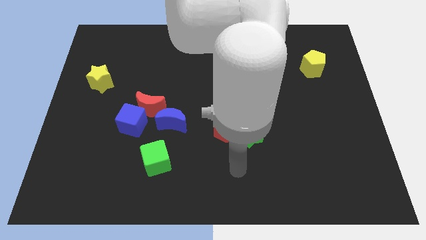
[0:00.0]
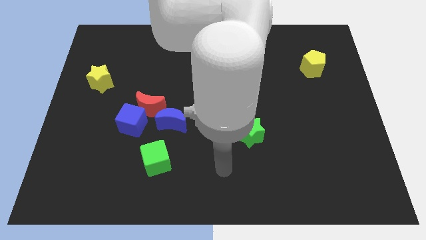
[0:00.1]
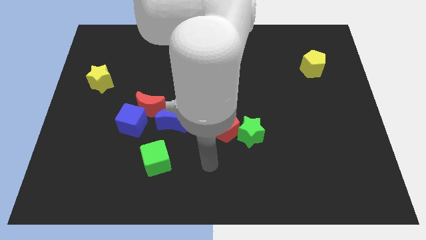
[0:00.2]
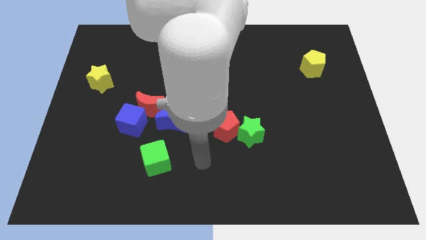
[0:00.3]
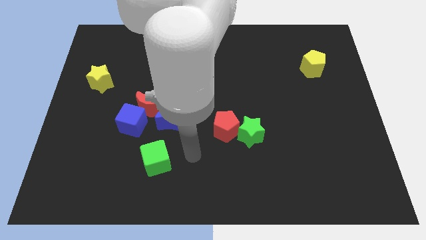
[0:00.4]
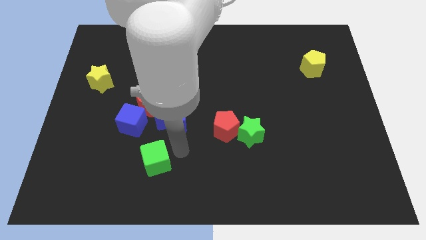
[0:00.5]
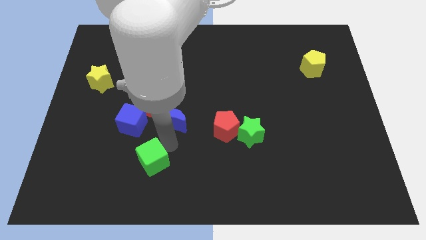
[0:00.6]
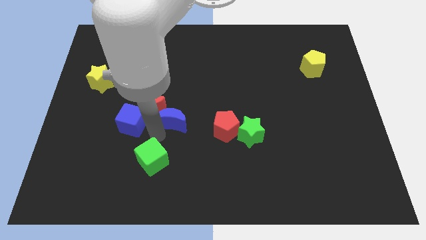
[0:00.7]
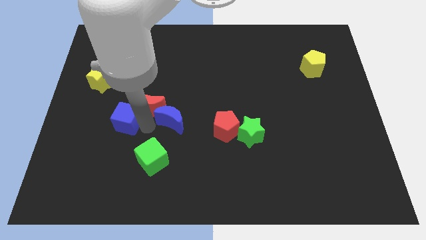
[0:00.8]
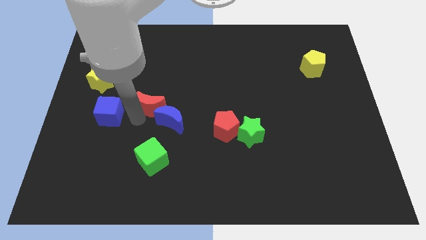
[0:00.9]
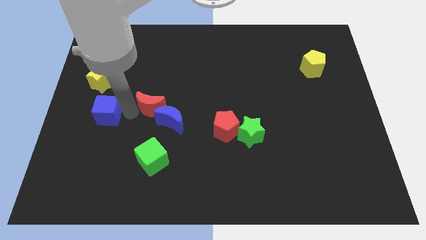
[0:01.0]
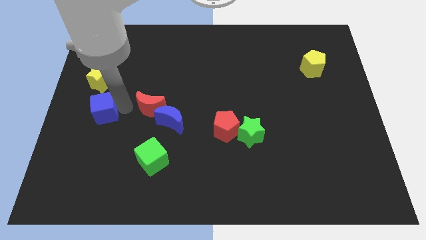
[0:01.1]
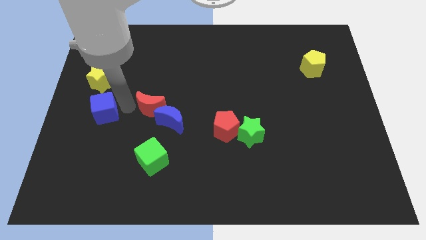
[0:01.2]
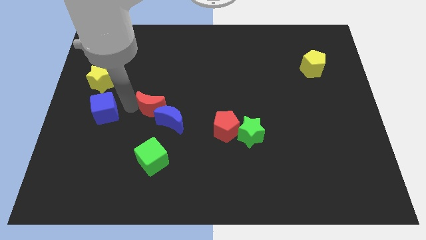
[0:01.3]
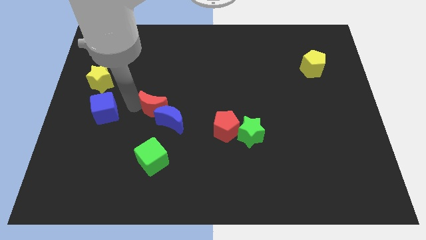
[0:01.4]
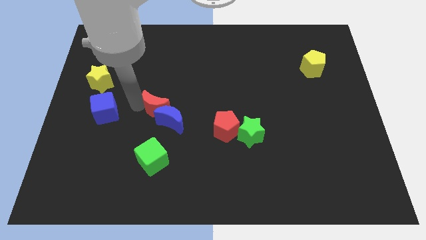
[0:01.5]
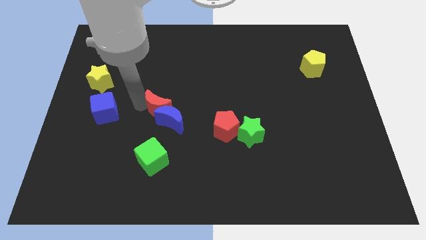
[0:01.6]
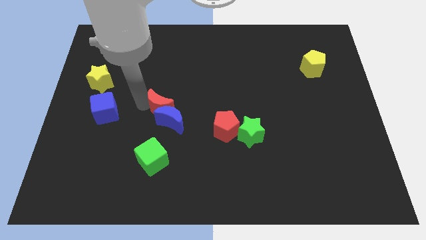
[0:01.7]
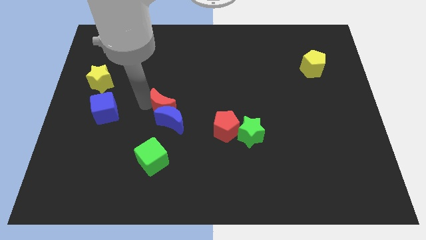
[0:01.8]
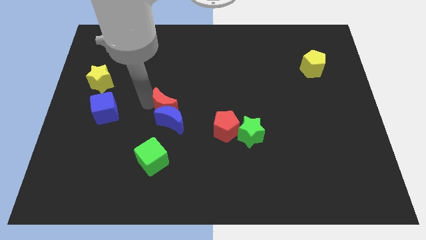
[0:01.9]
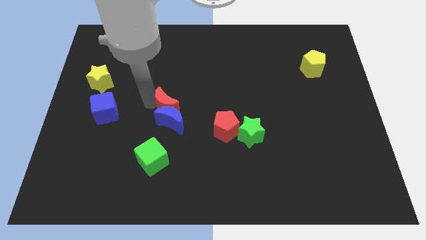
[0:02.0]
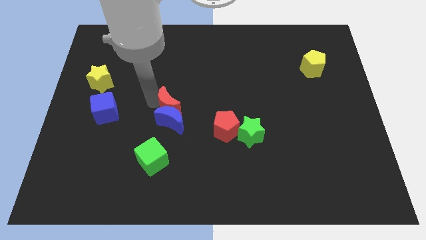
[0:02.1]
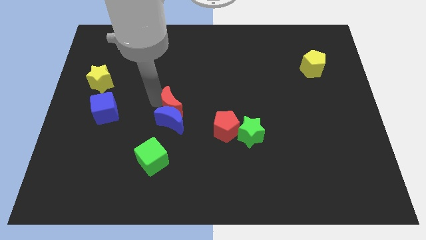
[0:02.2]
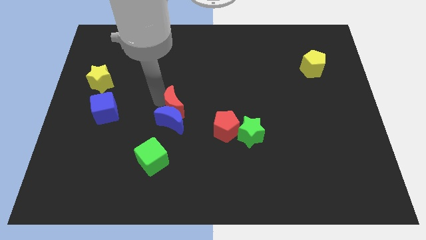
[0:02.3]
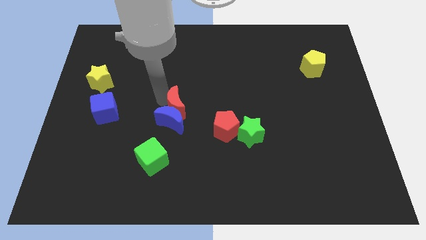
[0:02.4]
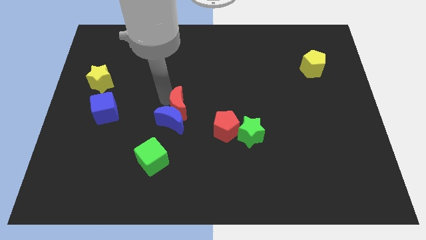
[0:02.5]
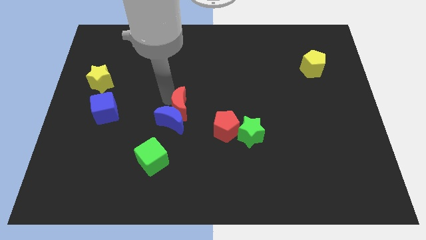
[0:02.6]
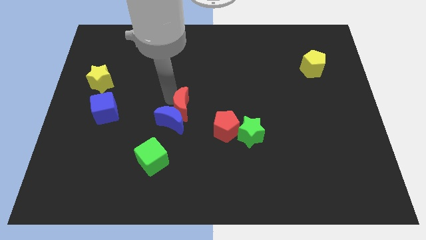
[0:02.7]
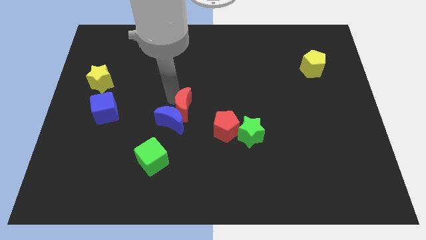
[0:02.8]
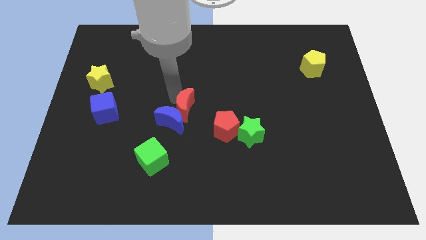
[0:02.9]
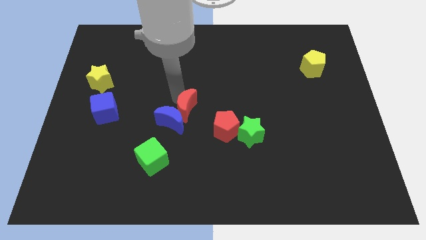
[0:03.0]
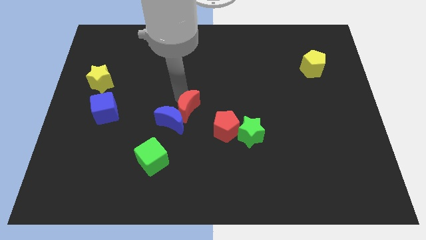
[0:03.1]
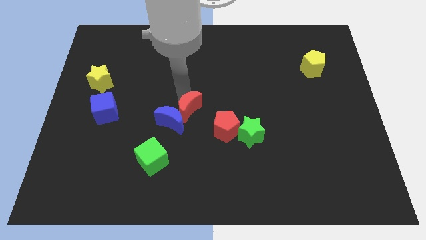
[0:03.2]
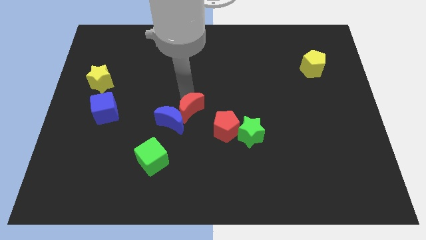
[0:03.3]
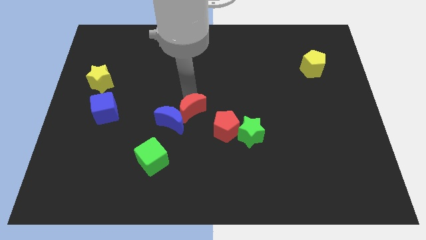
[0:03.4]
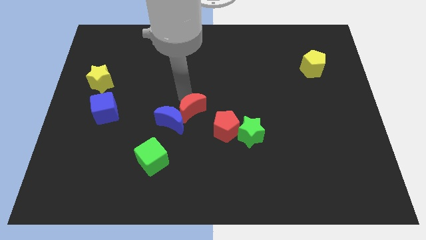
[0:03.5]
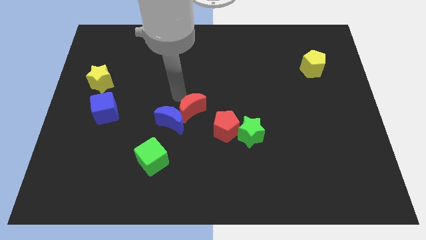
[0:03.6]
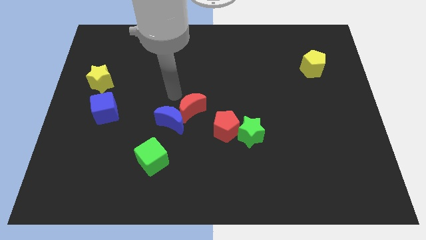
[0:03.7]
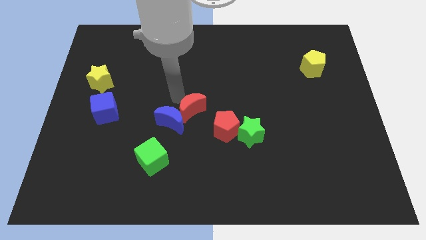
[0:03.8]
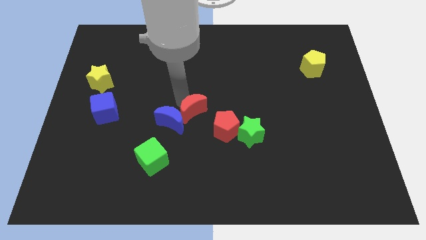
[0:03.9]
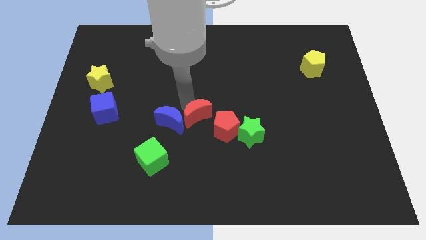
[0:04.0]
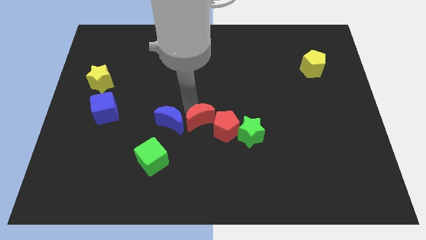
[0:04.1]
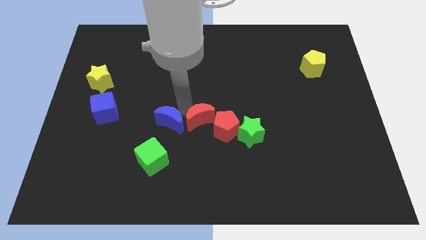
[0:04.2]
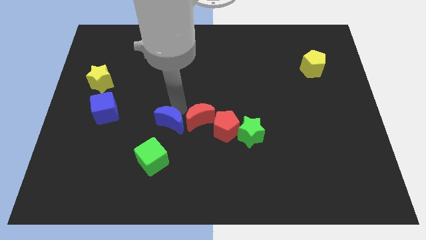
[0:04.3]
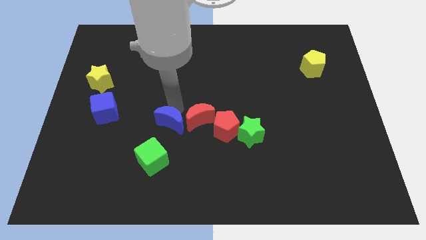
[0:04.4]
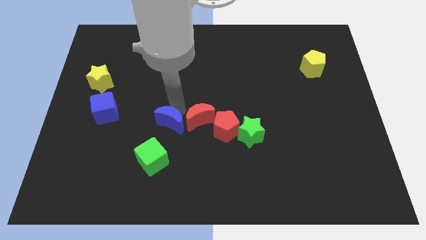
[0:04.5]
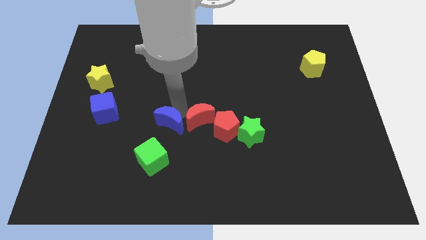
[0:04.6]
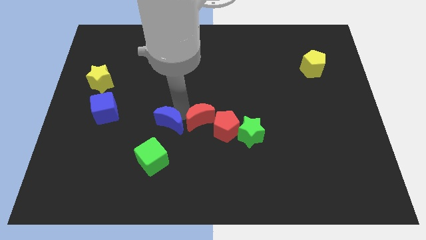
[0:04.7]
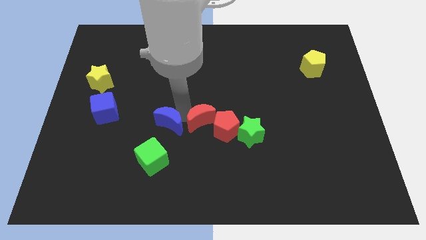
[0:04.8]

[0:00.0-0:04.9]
push the red moon next to the red pentagon

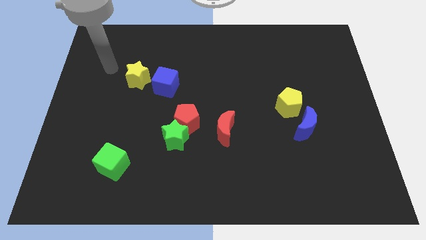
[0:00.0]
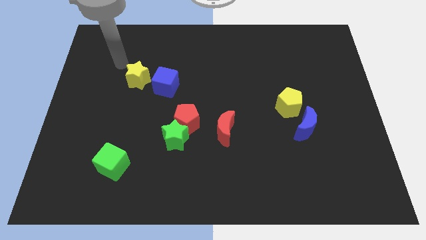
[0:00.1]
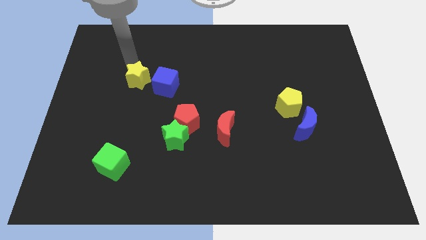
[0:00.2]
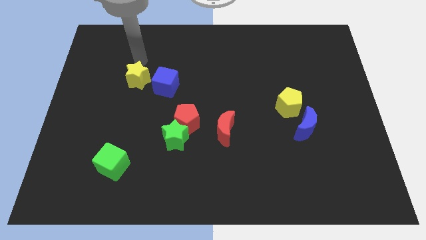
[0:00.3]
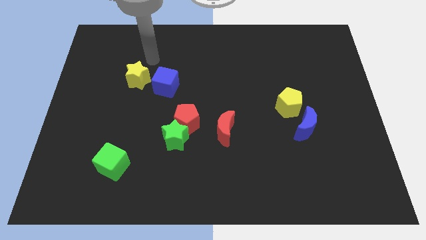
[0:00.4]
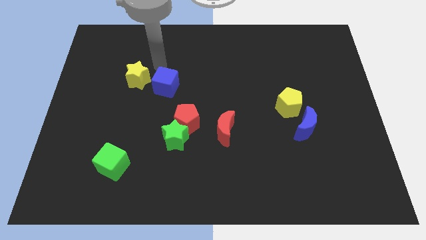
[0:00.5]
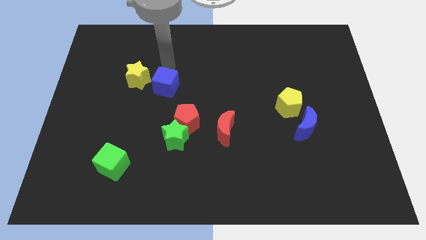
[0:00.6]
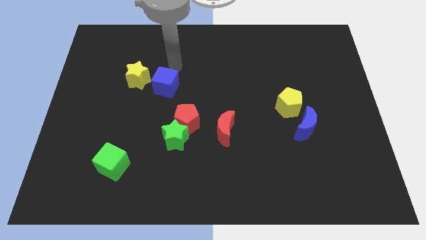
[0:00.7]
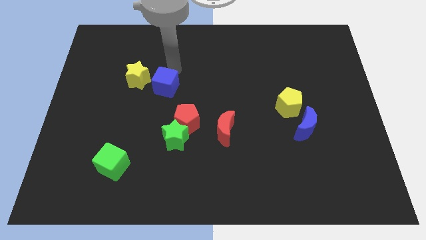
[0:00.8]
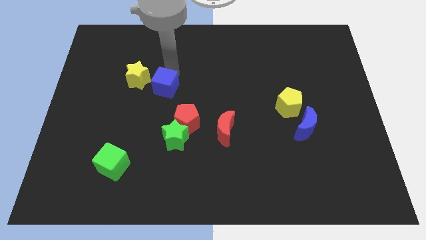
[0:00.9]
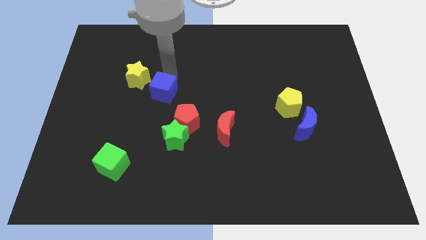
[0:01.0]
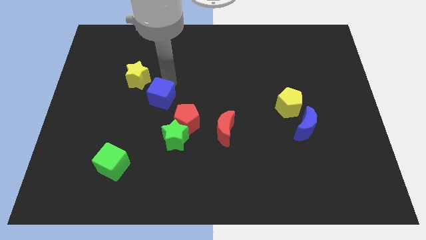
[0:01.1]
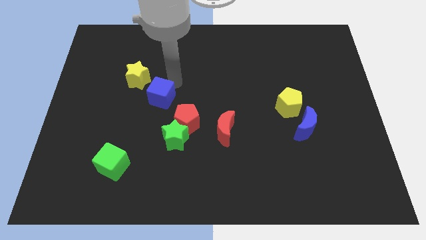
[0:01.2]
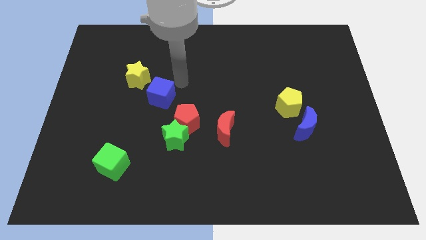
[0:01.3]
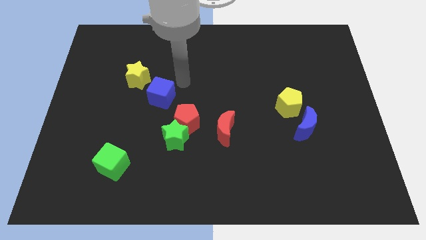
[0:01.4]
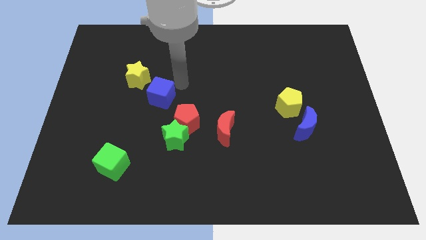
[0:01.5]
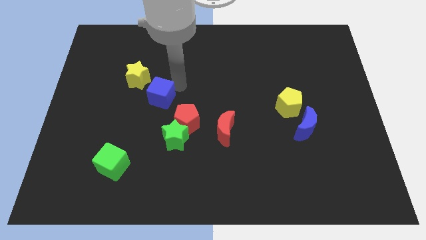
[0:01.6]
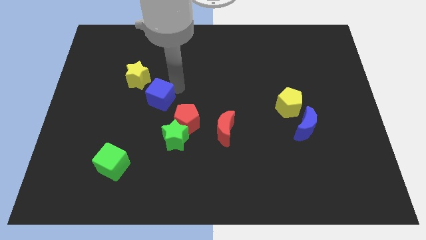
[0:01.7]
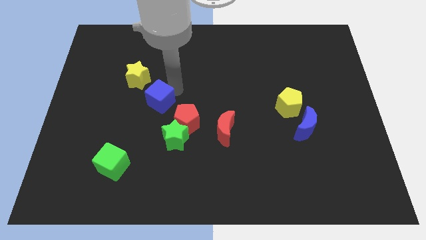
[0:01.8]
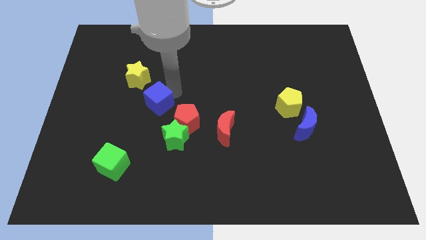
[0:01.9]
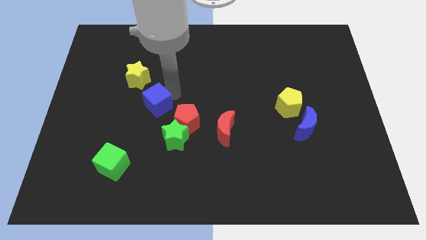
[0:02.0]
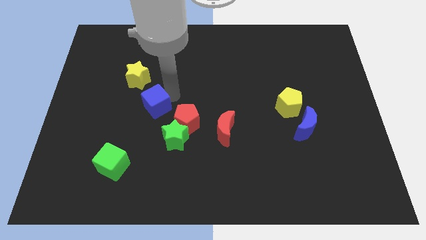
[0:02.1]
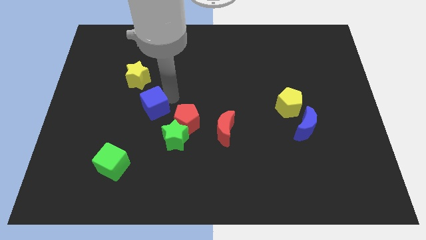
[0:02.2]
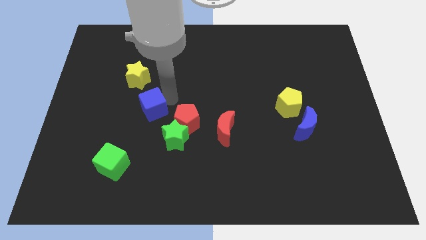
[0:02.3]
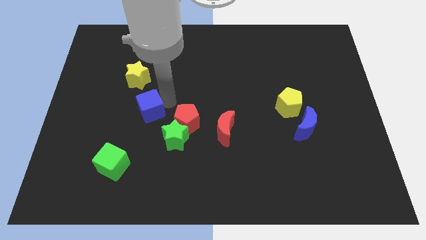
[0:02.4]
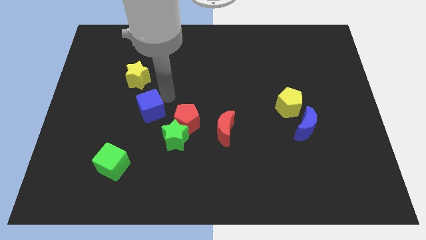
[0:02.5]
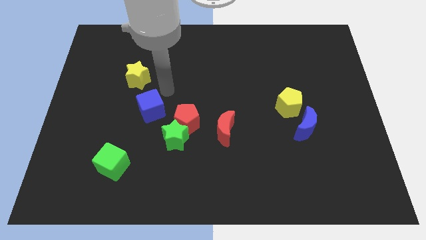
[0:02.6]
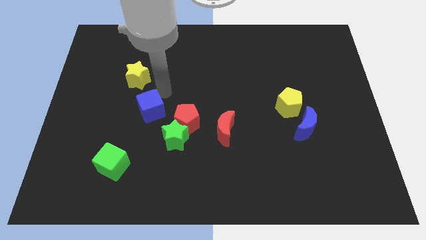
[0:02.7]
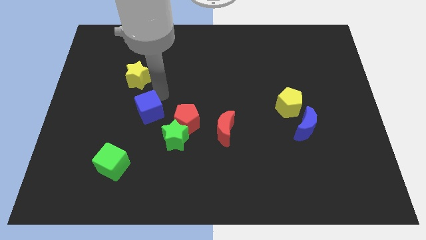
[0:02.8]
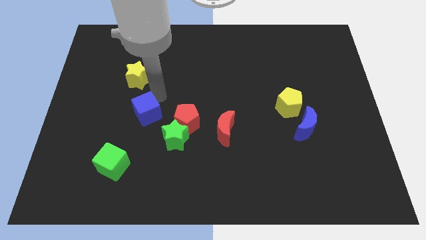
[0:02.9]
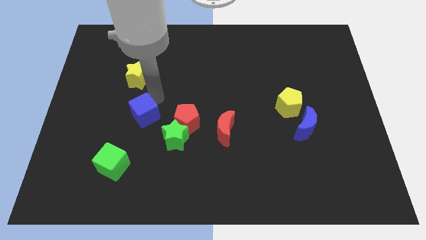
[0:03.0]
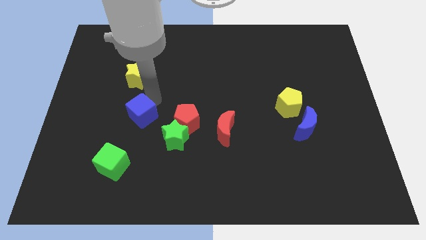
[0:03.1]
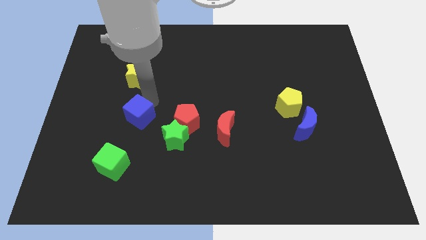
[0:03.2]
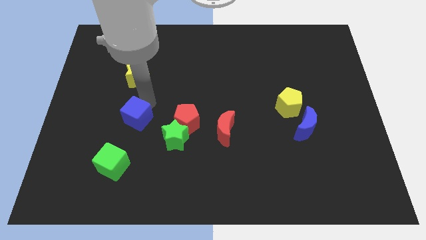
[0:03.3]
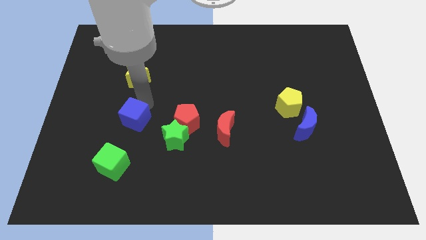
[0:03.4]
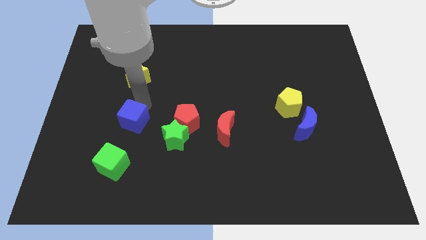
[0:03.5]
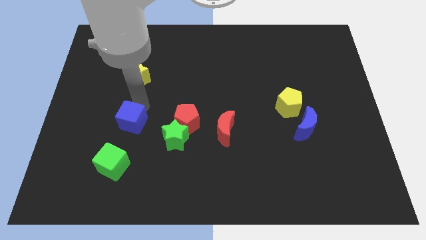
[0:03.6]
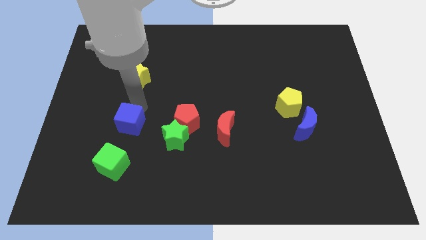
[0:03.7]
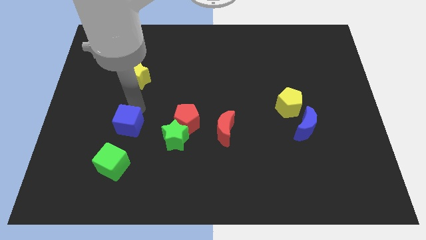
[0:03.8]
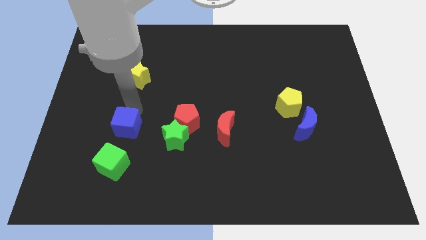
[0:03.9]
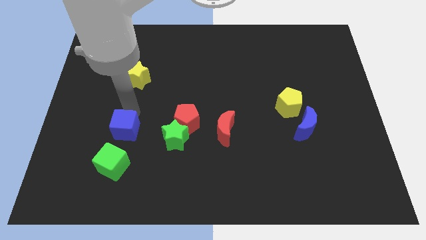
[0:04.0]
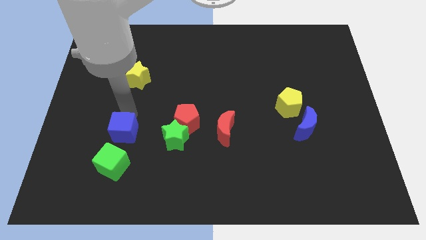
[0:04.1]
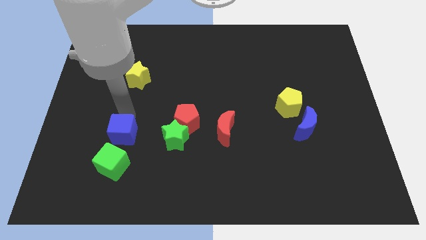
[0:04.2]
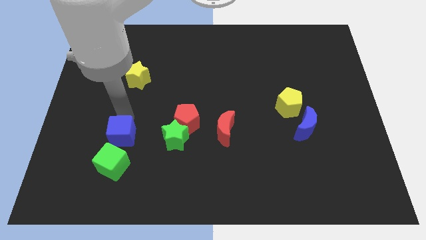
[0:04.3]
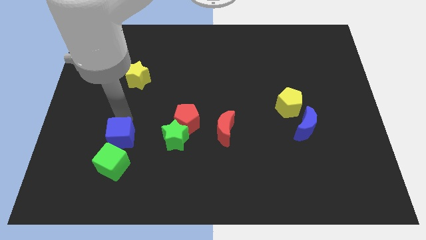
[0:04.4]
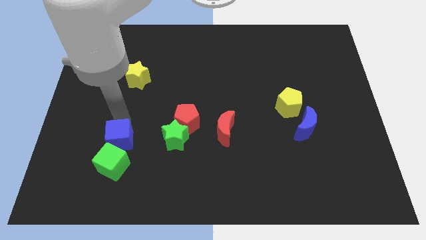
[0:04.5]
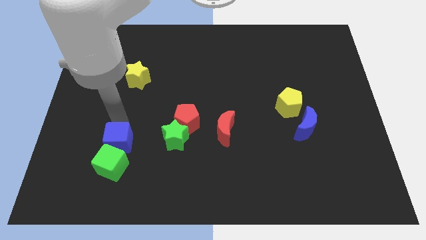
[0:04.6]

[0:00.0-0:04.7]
move the blue cube close to the green cube
